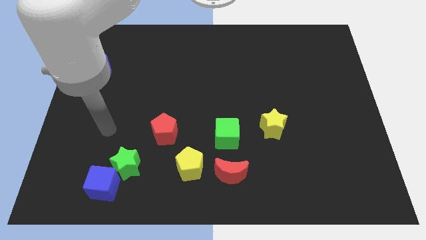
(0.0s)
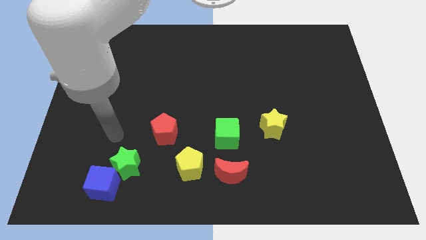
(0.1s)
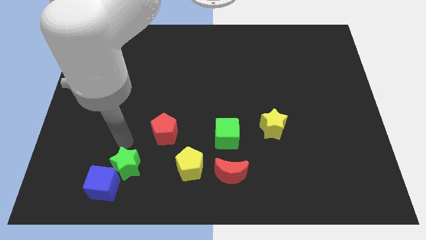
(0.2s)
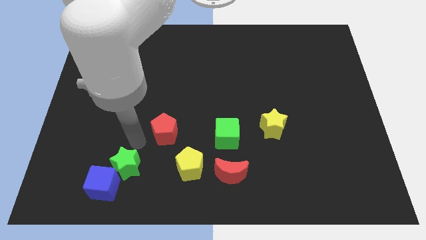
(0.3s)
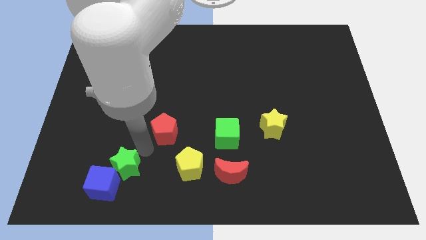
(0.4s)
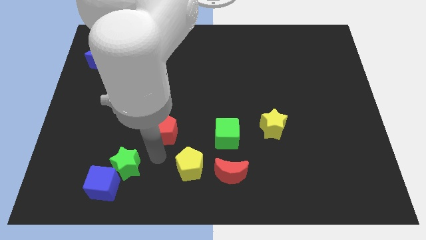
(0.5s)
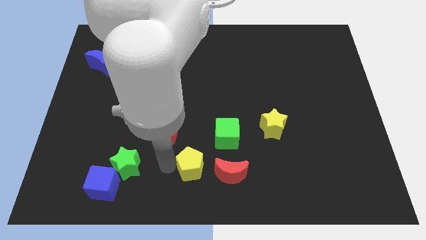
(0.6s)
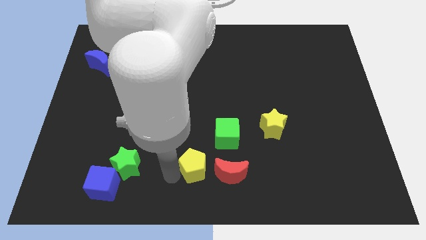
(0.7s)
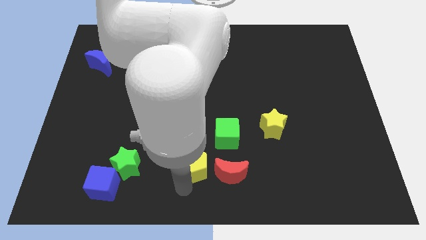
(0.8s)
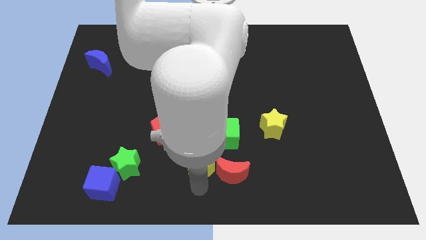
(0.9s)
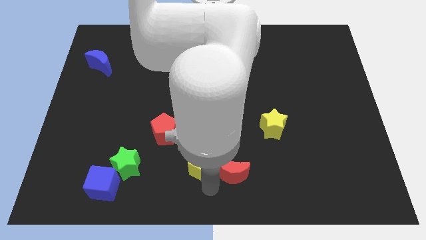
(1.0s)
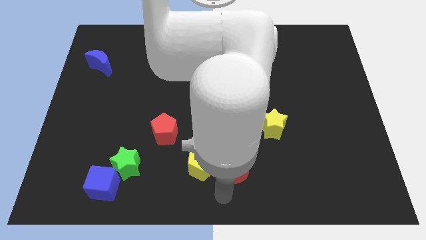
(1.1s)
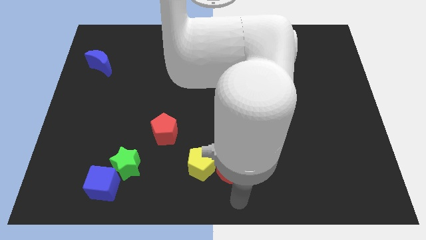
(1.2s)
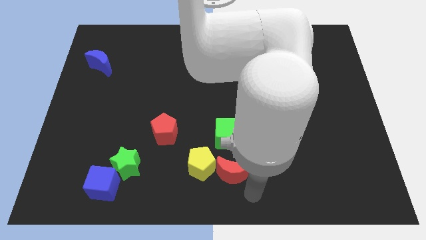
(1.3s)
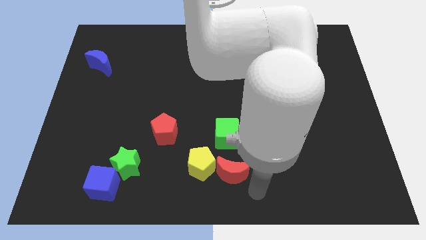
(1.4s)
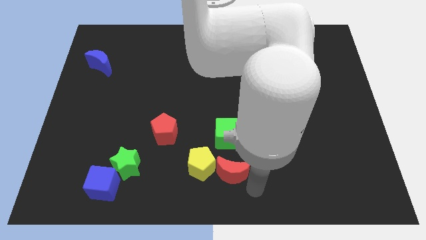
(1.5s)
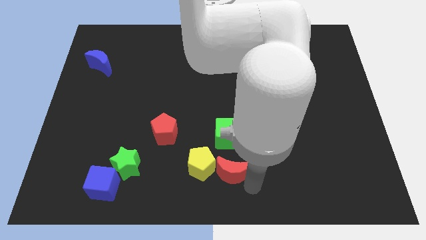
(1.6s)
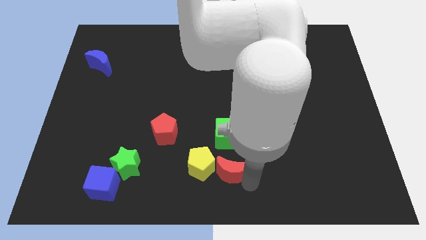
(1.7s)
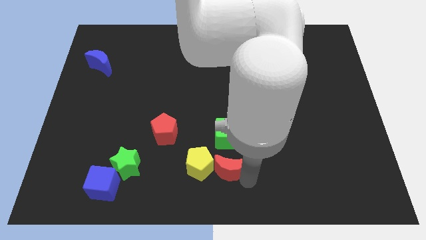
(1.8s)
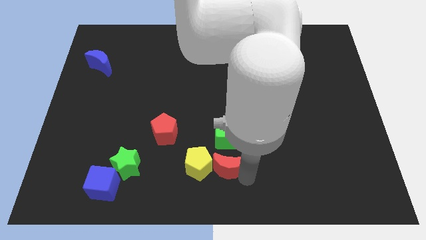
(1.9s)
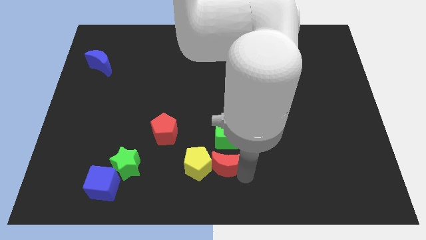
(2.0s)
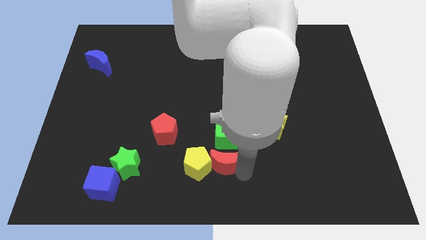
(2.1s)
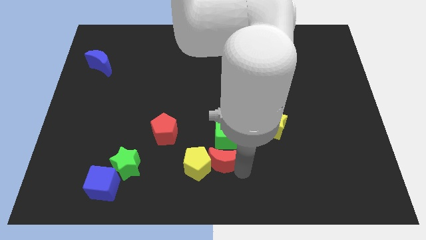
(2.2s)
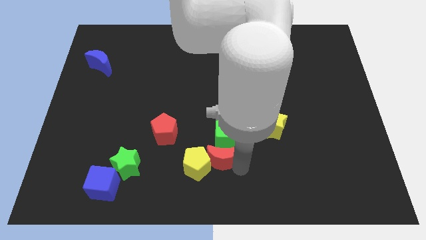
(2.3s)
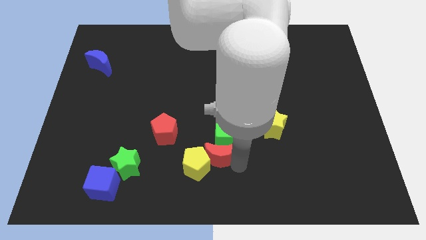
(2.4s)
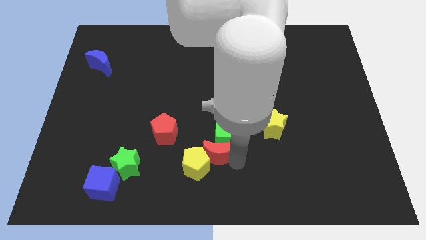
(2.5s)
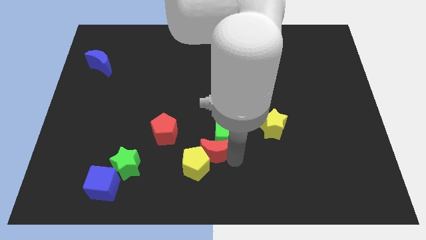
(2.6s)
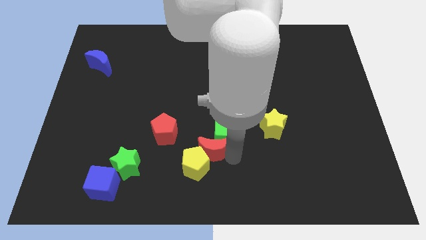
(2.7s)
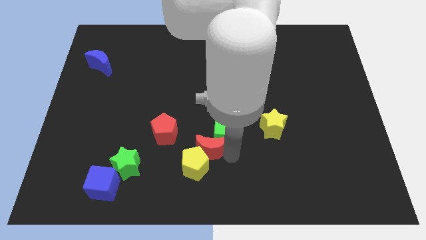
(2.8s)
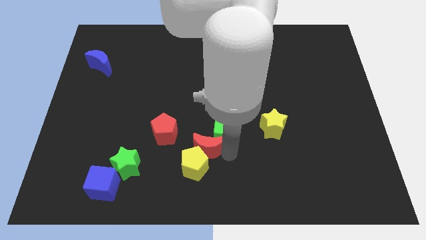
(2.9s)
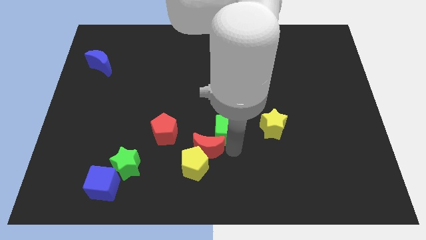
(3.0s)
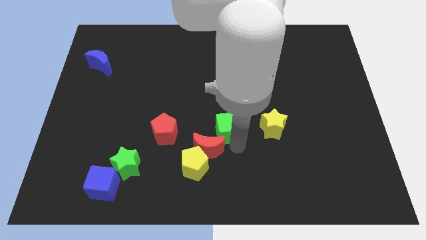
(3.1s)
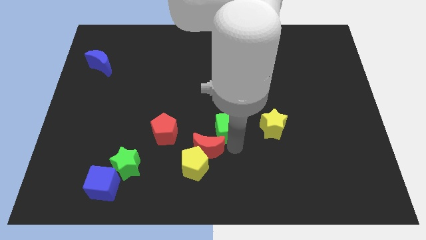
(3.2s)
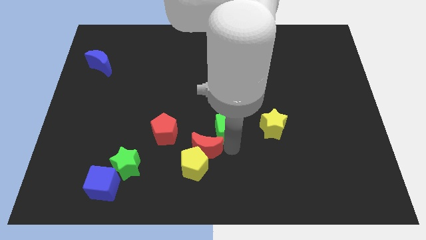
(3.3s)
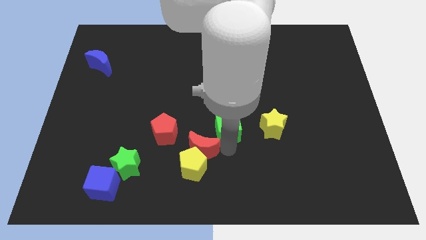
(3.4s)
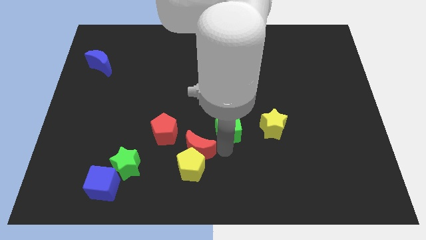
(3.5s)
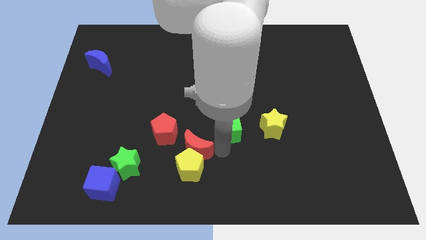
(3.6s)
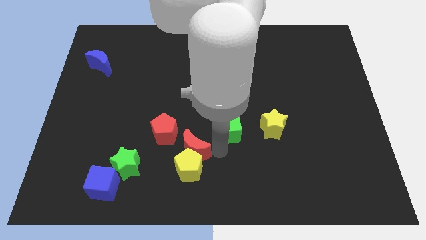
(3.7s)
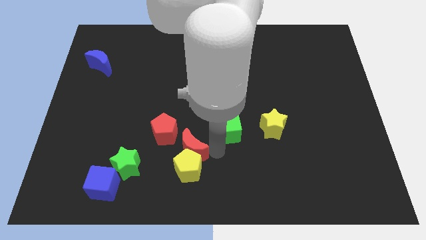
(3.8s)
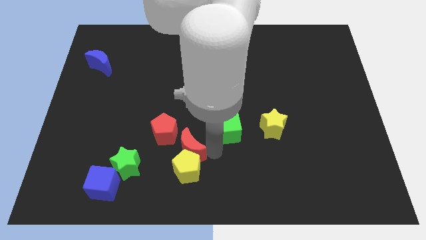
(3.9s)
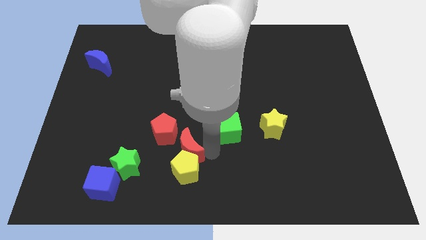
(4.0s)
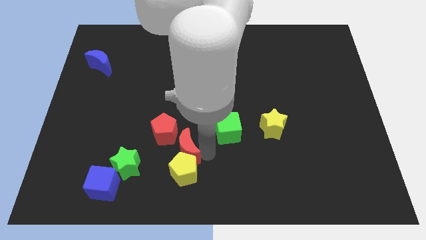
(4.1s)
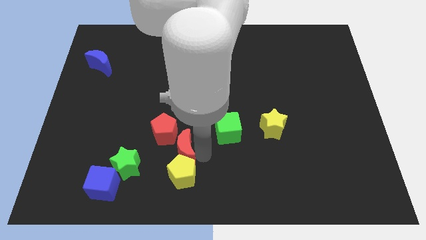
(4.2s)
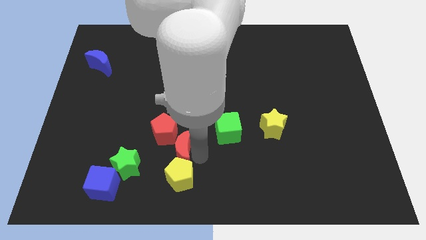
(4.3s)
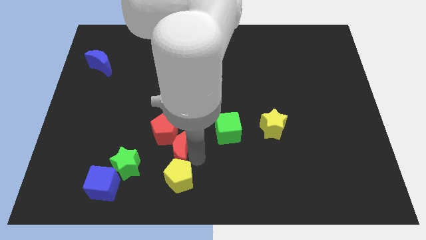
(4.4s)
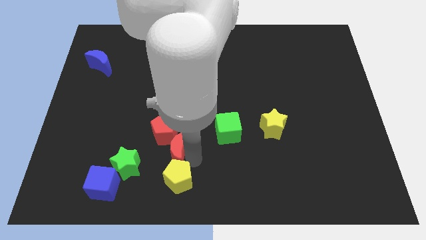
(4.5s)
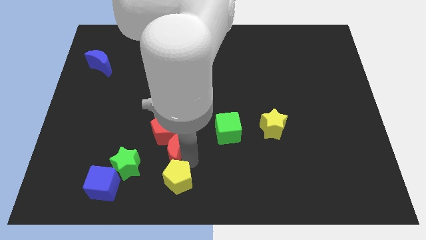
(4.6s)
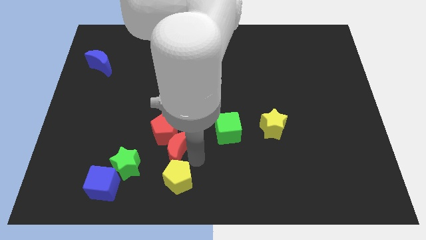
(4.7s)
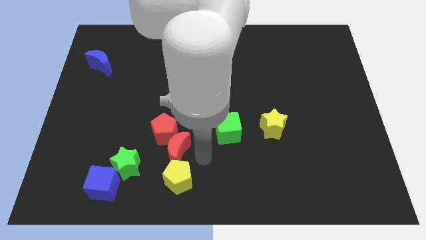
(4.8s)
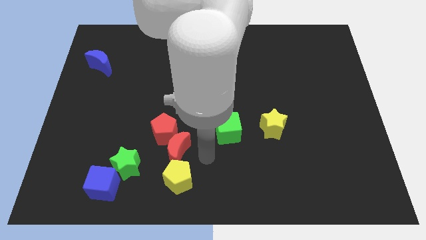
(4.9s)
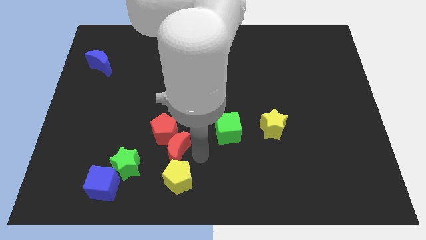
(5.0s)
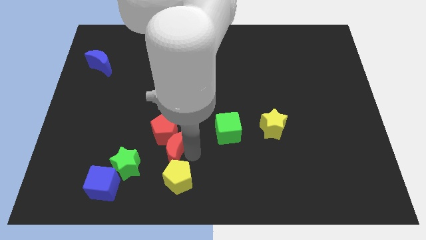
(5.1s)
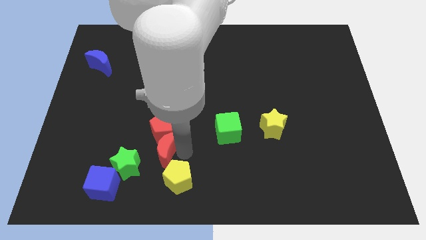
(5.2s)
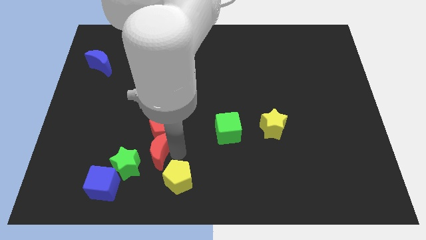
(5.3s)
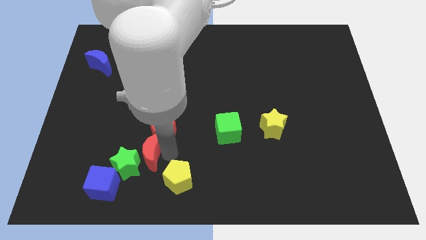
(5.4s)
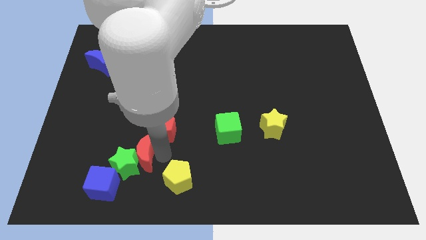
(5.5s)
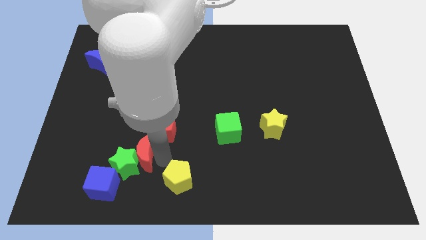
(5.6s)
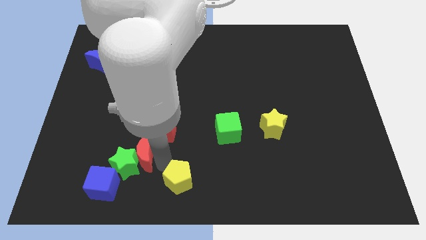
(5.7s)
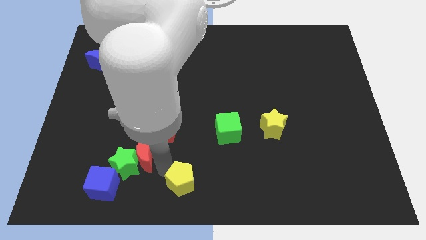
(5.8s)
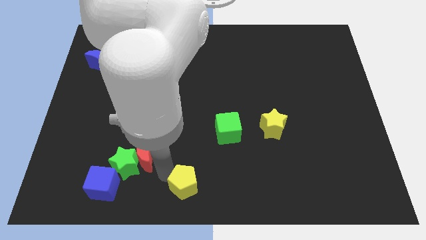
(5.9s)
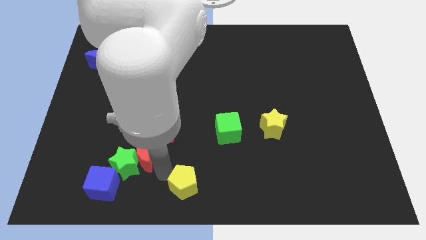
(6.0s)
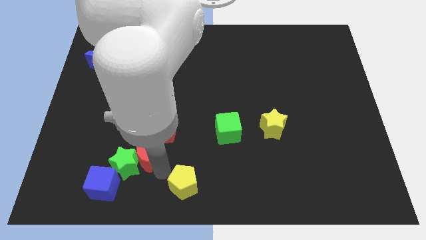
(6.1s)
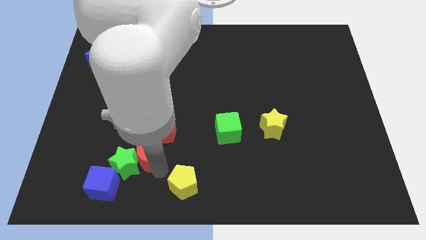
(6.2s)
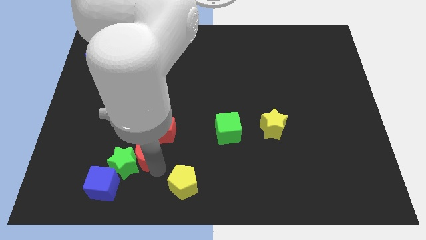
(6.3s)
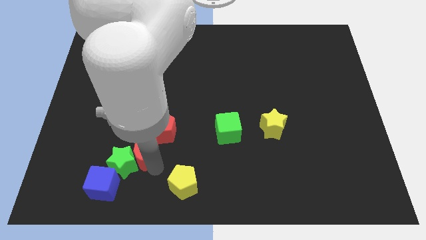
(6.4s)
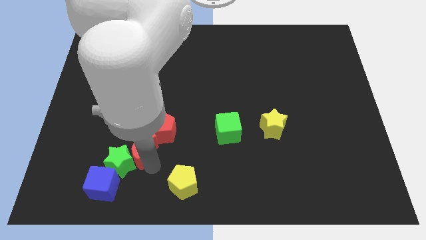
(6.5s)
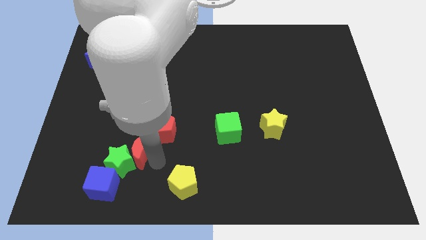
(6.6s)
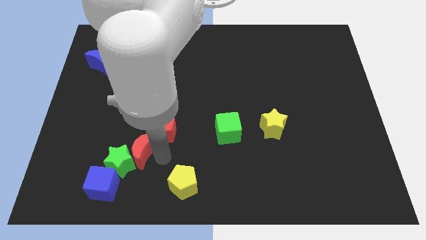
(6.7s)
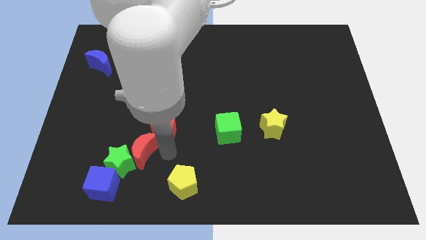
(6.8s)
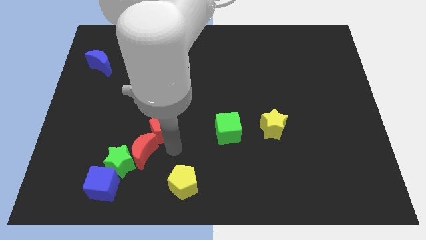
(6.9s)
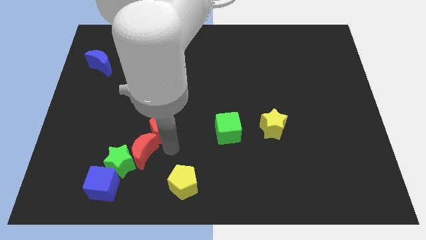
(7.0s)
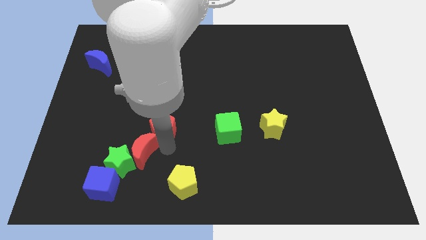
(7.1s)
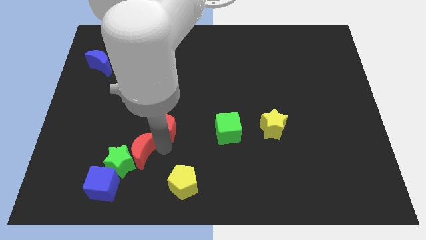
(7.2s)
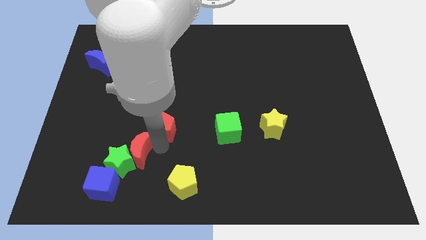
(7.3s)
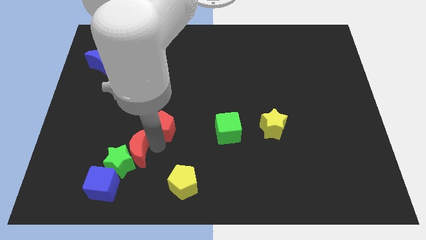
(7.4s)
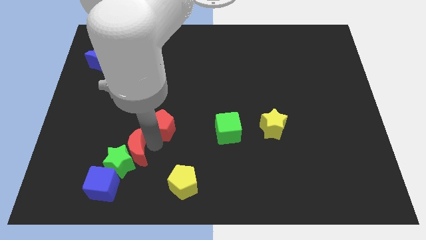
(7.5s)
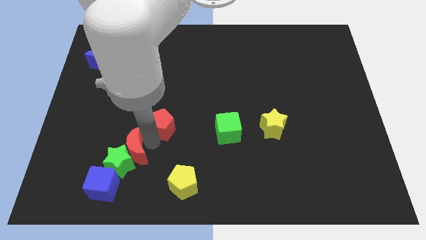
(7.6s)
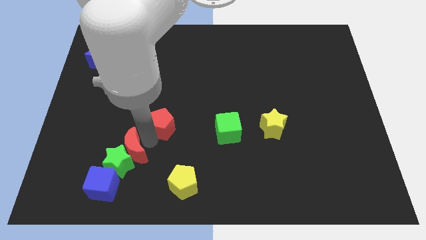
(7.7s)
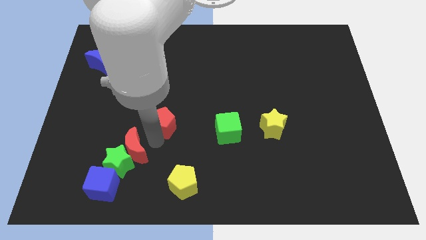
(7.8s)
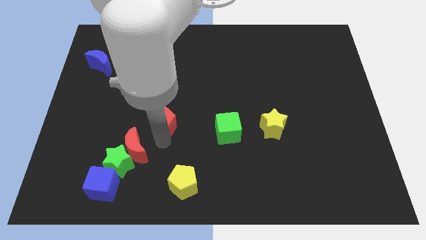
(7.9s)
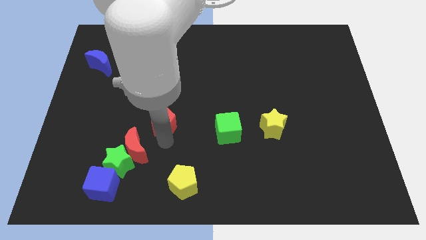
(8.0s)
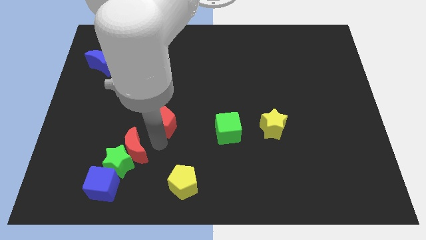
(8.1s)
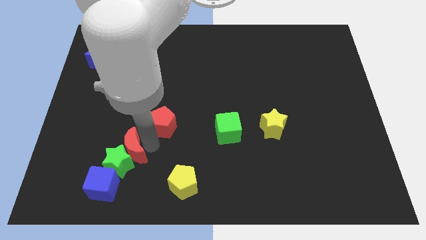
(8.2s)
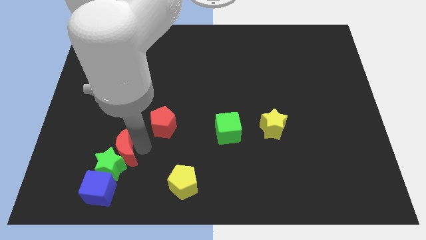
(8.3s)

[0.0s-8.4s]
push the red moon left
